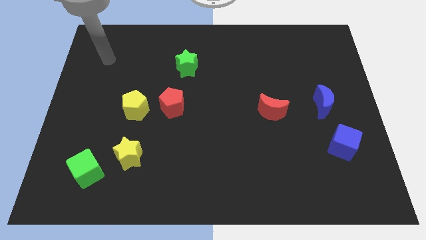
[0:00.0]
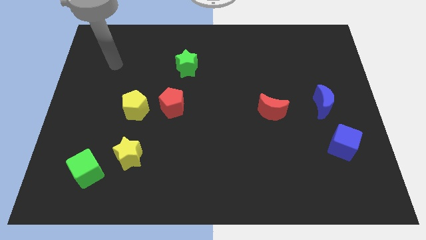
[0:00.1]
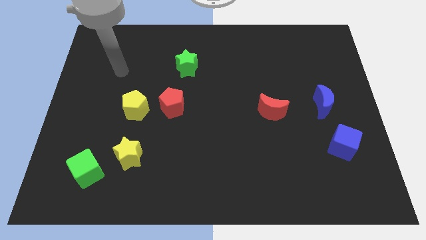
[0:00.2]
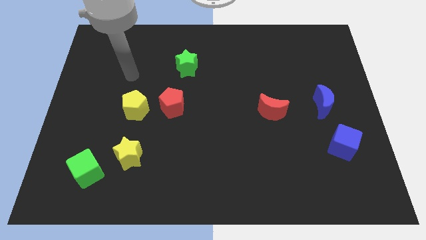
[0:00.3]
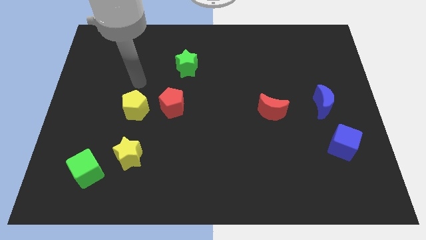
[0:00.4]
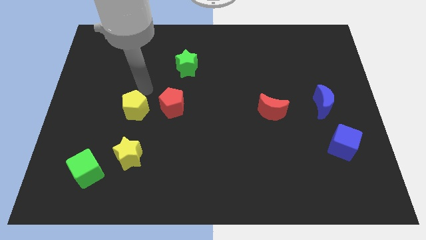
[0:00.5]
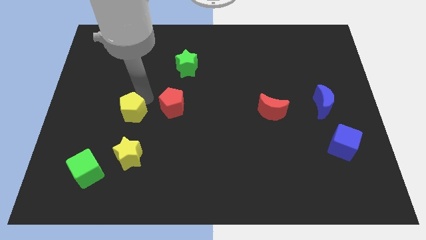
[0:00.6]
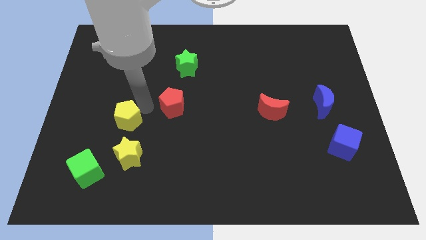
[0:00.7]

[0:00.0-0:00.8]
move the red pentagon away from the yellow pentagon

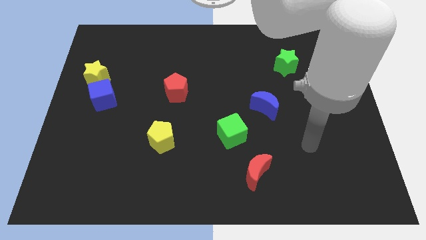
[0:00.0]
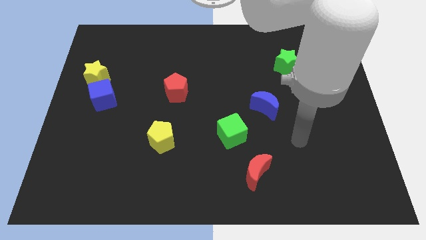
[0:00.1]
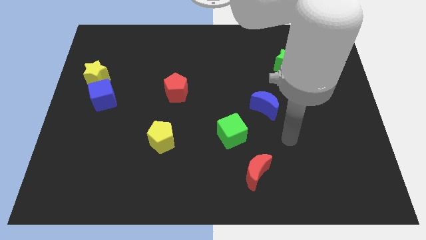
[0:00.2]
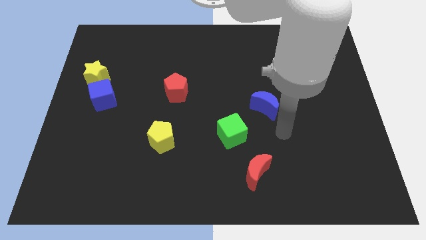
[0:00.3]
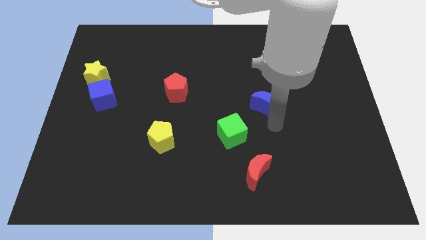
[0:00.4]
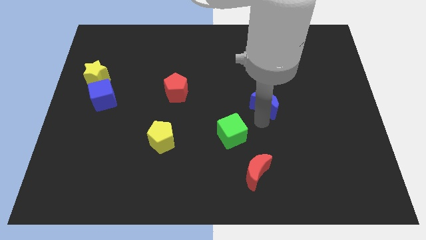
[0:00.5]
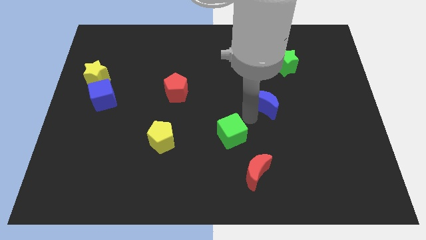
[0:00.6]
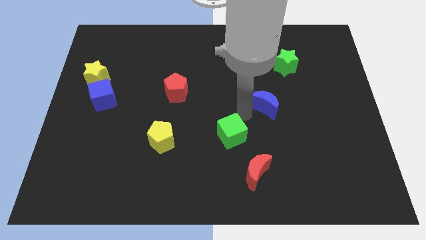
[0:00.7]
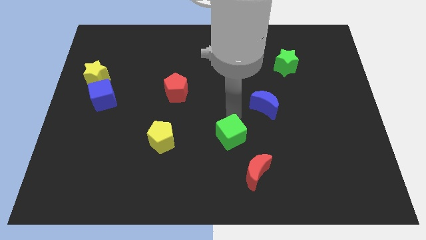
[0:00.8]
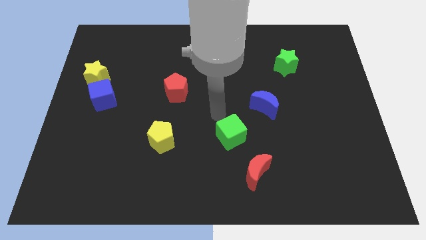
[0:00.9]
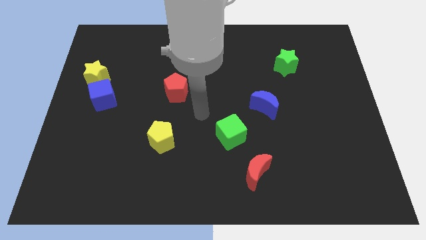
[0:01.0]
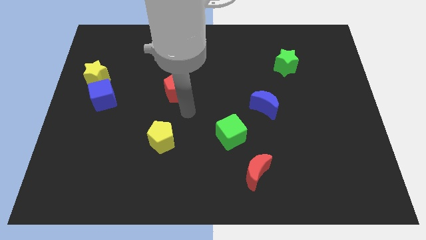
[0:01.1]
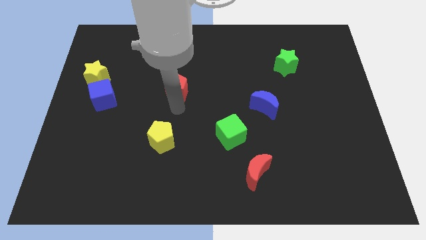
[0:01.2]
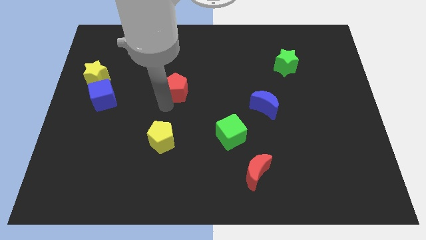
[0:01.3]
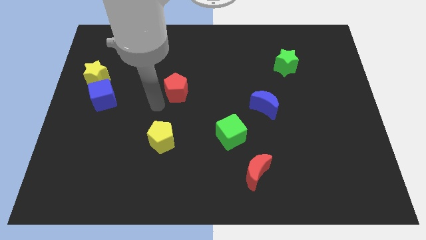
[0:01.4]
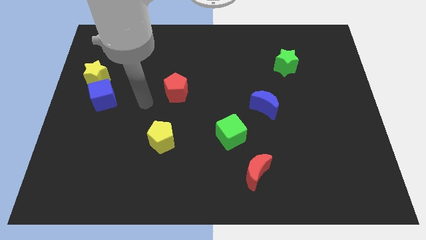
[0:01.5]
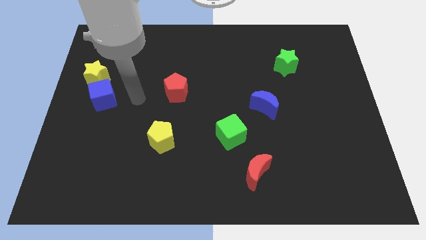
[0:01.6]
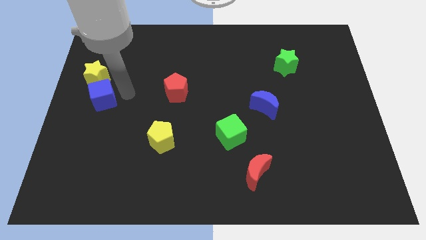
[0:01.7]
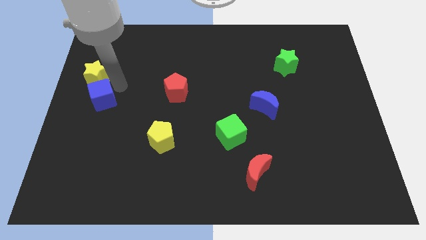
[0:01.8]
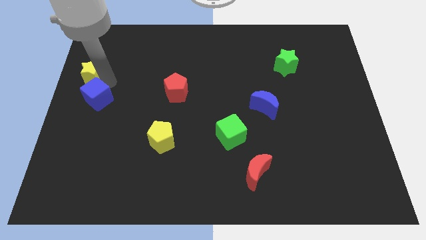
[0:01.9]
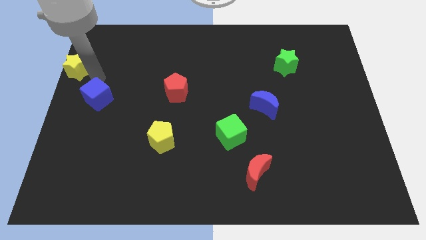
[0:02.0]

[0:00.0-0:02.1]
separate the blue cube from the yellow star

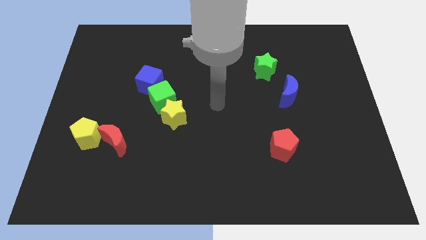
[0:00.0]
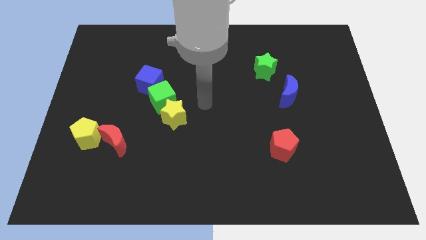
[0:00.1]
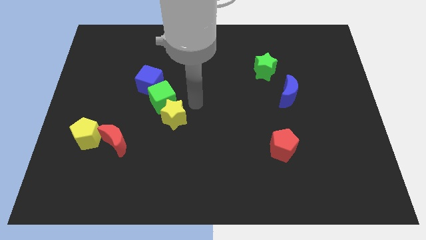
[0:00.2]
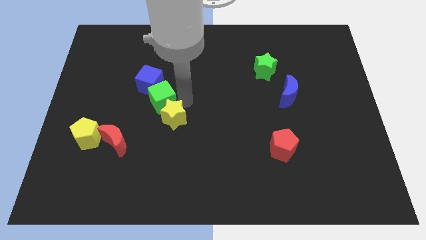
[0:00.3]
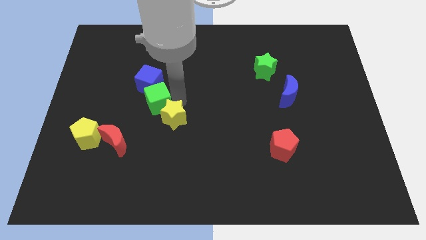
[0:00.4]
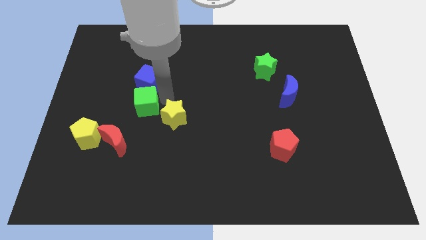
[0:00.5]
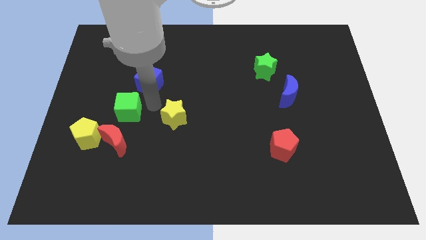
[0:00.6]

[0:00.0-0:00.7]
pull the yellow star apart from the green cube

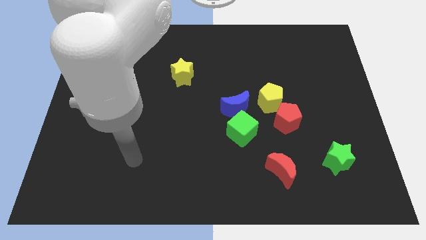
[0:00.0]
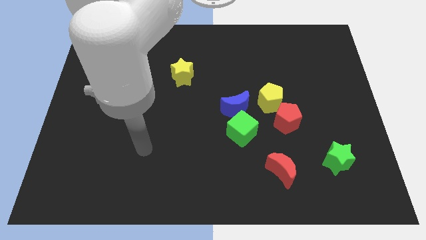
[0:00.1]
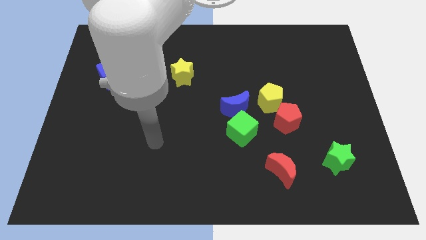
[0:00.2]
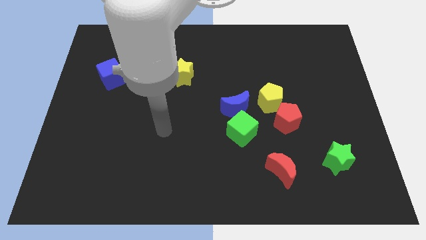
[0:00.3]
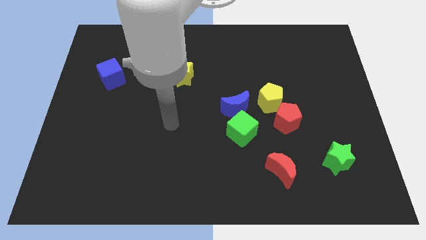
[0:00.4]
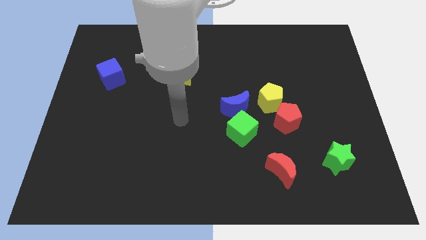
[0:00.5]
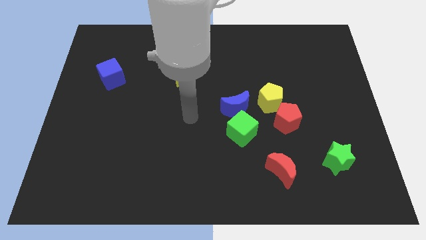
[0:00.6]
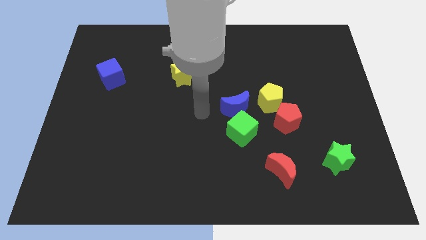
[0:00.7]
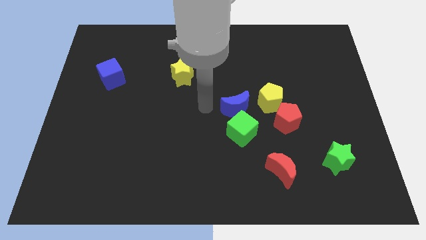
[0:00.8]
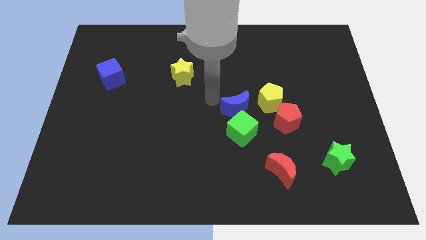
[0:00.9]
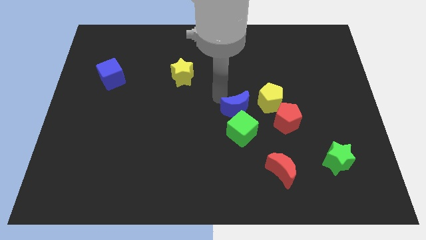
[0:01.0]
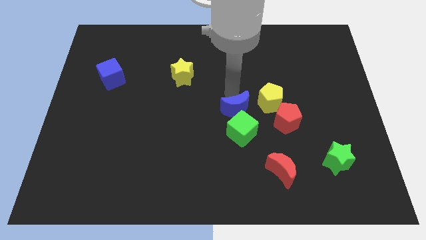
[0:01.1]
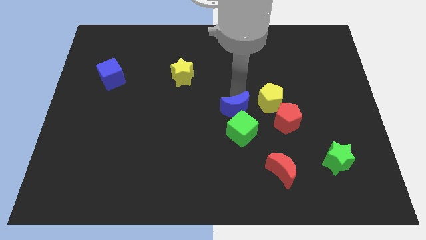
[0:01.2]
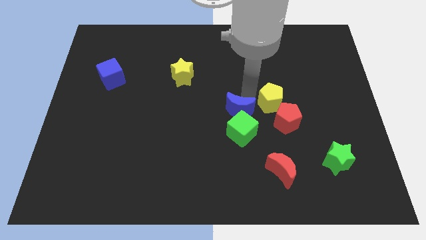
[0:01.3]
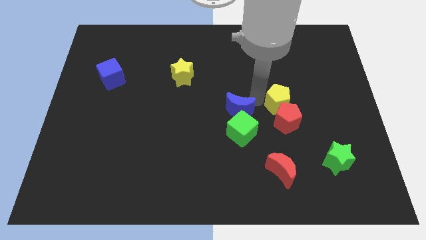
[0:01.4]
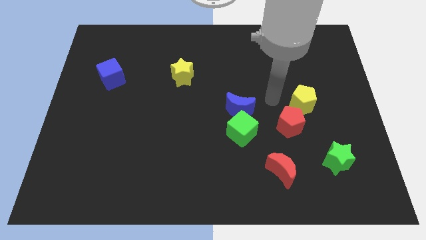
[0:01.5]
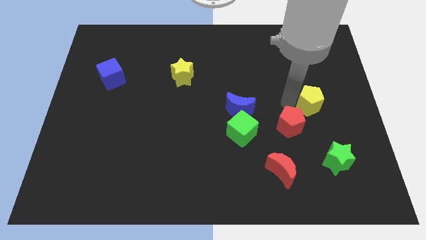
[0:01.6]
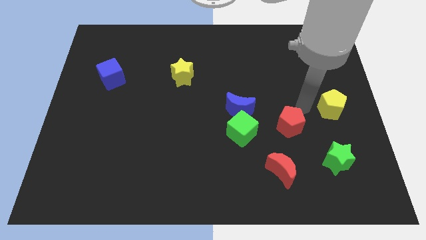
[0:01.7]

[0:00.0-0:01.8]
separate the red pentagon from the yellow pentagon

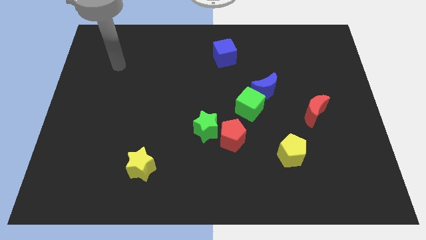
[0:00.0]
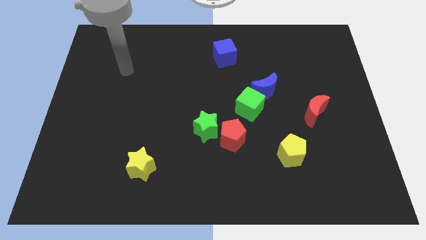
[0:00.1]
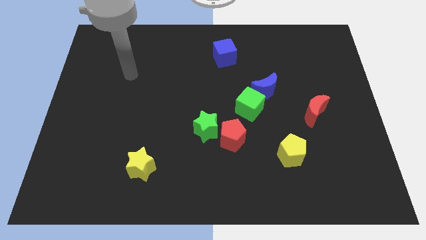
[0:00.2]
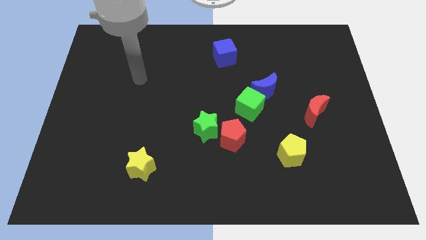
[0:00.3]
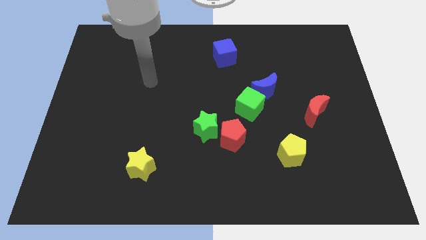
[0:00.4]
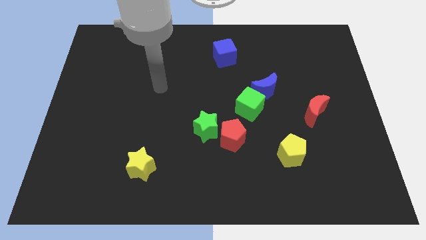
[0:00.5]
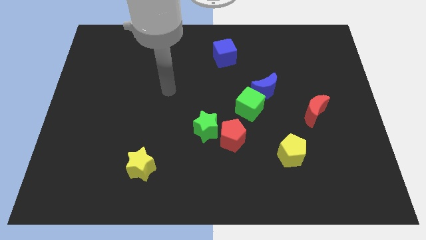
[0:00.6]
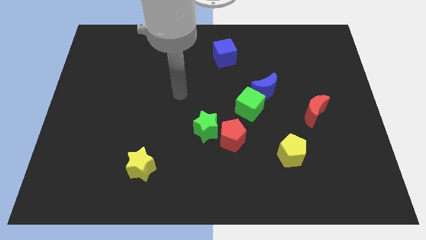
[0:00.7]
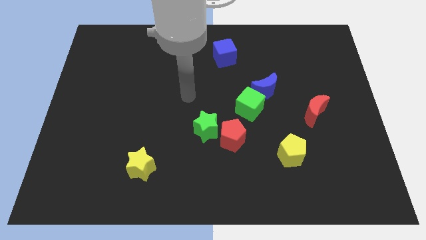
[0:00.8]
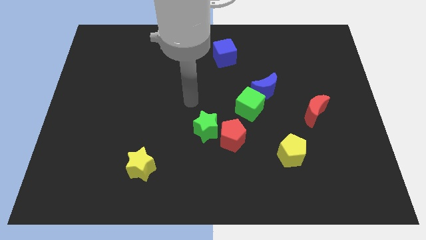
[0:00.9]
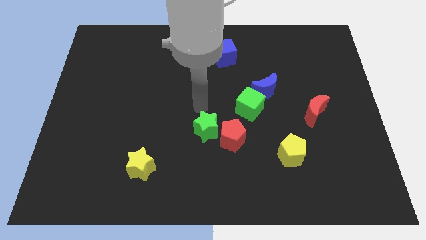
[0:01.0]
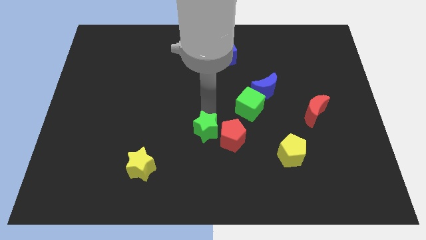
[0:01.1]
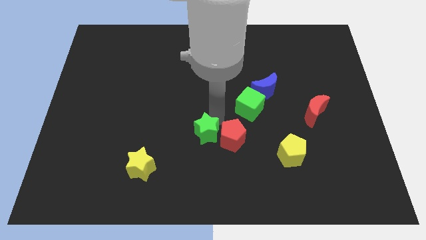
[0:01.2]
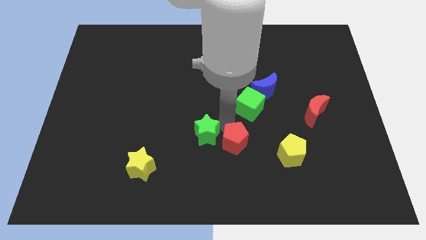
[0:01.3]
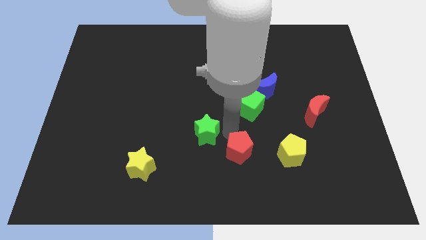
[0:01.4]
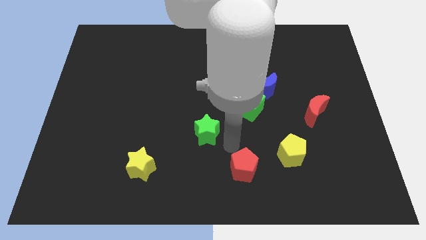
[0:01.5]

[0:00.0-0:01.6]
separate the green star from the red pentagon

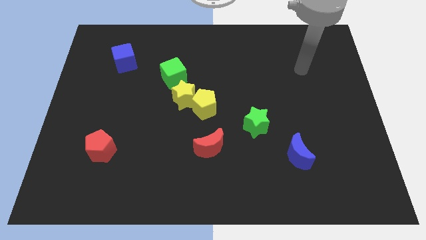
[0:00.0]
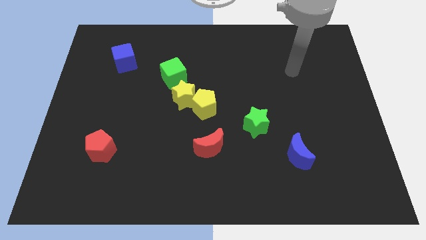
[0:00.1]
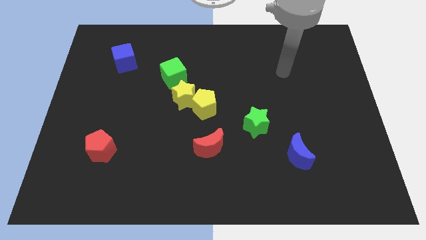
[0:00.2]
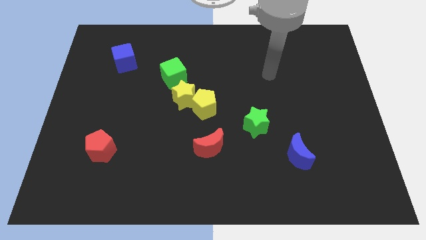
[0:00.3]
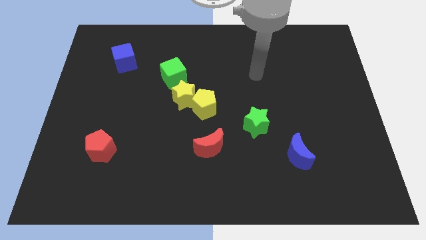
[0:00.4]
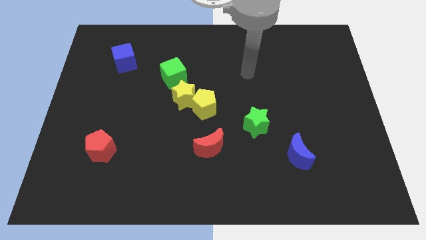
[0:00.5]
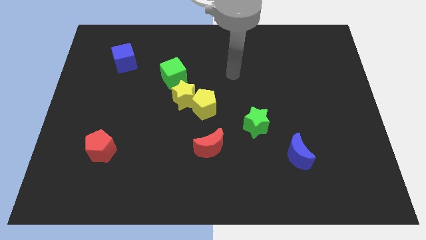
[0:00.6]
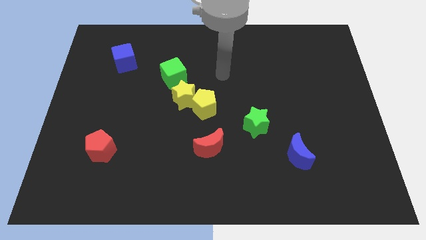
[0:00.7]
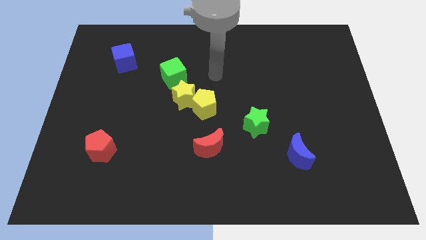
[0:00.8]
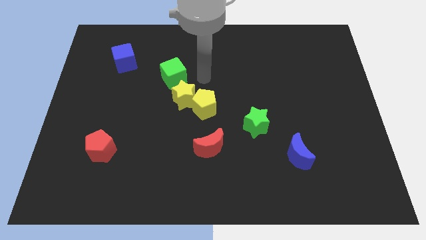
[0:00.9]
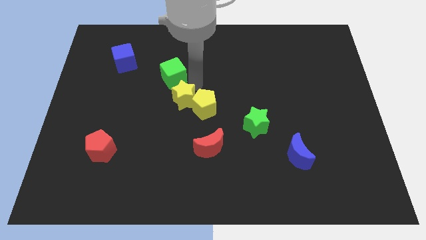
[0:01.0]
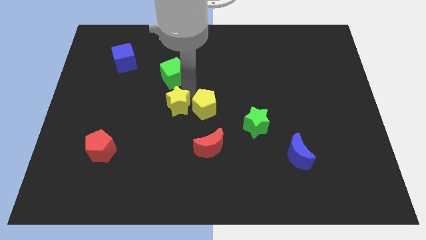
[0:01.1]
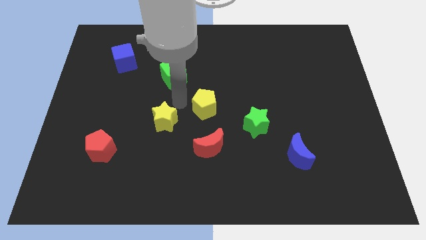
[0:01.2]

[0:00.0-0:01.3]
separate the yellow pentagon from the yellow star

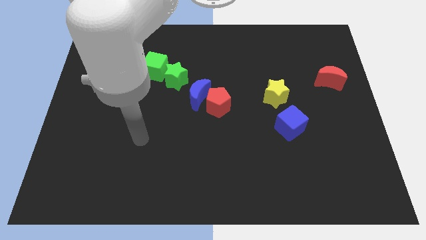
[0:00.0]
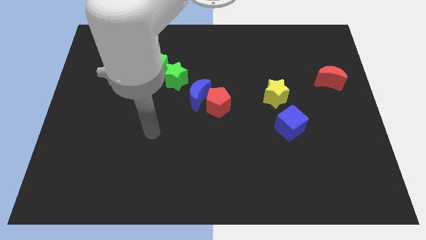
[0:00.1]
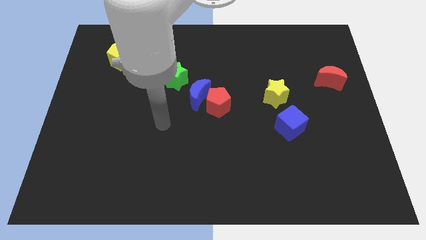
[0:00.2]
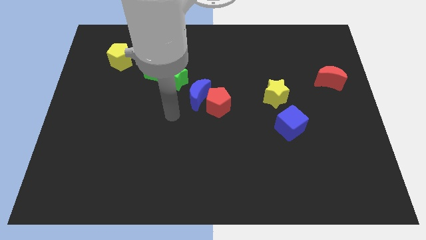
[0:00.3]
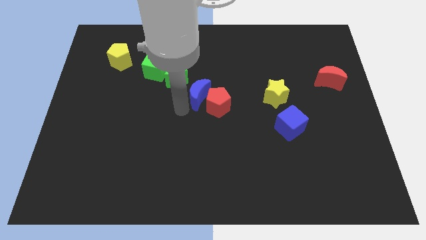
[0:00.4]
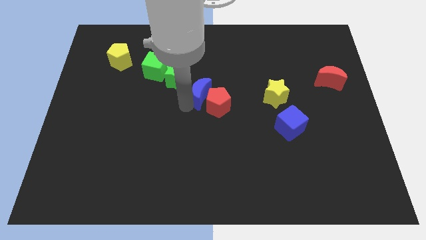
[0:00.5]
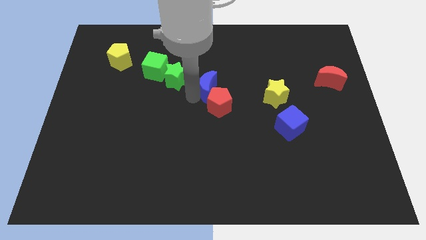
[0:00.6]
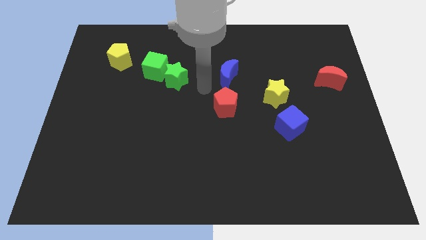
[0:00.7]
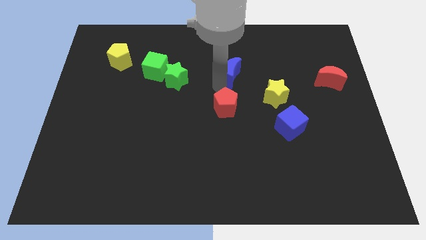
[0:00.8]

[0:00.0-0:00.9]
move the red pentagon away from the blue moon
